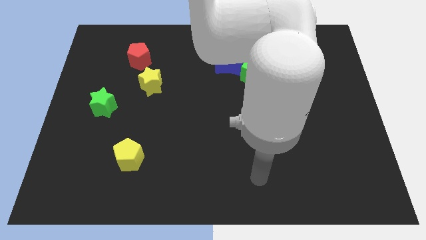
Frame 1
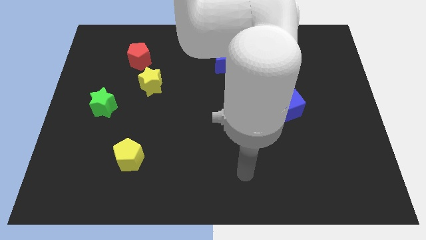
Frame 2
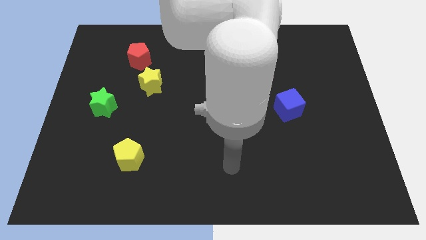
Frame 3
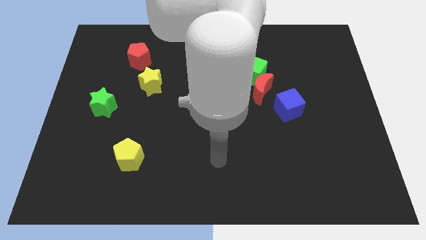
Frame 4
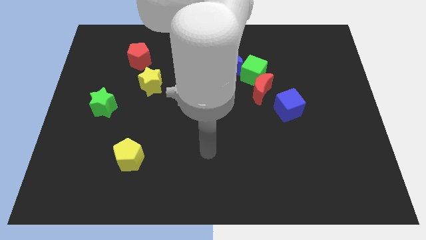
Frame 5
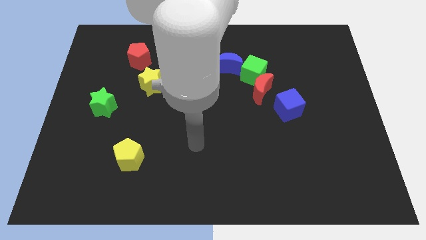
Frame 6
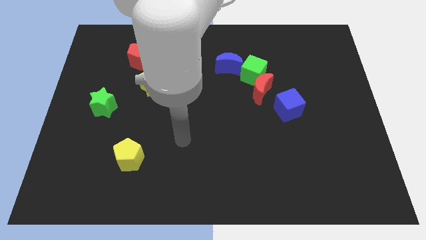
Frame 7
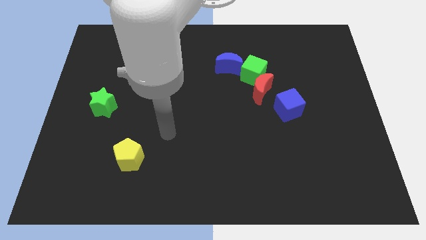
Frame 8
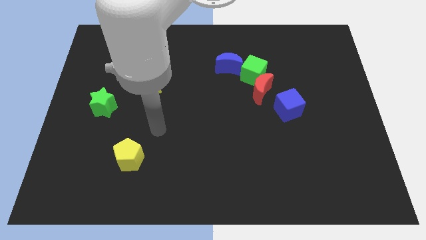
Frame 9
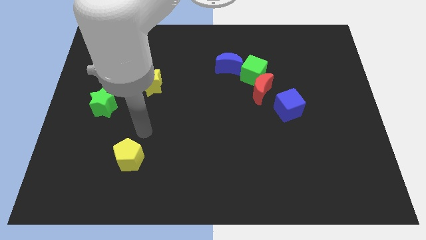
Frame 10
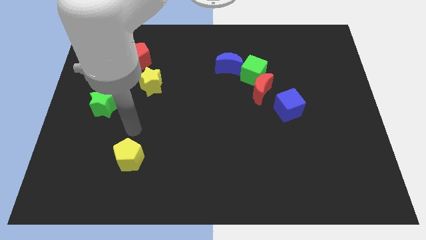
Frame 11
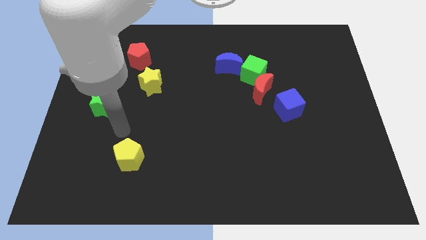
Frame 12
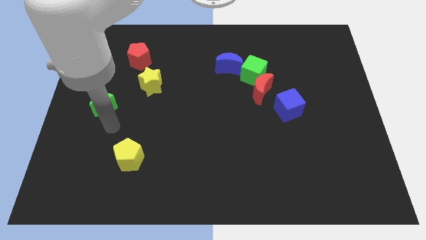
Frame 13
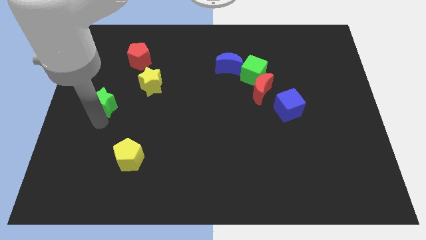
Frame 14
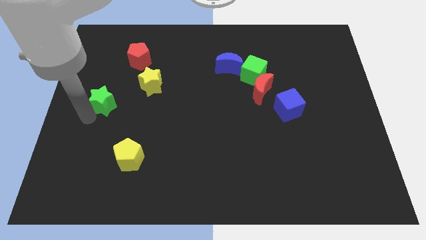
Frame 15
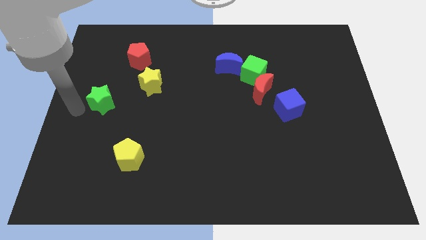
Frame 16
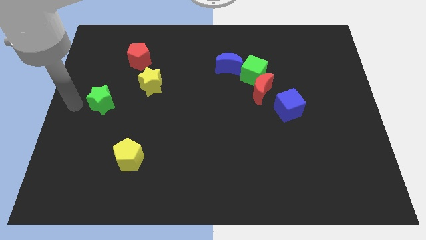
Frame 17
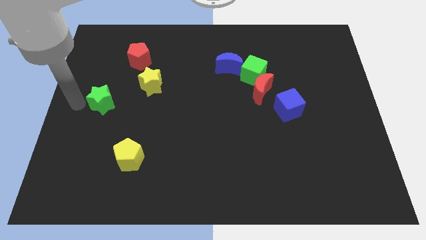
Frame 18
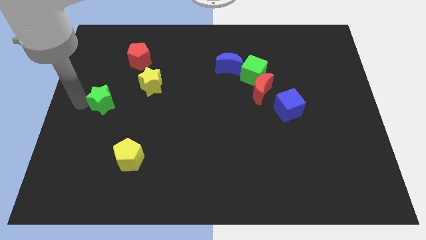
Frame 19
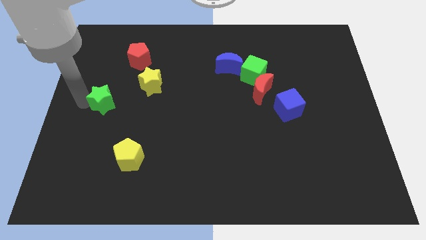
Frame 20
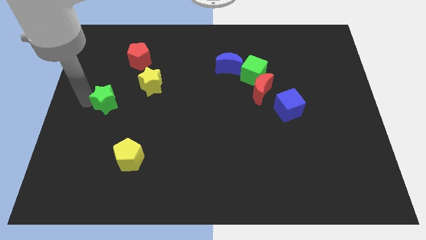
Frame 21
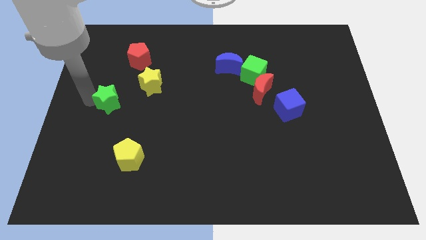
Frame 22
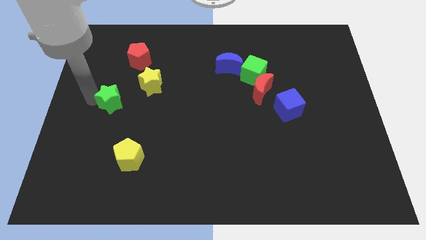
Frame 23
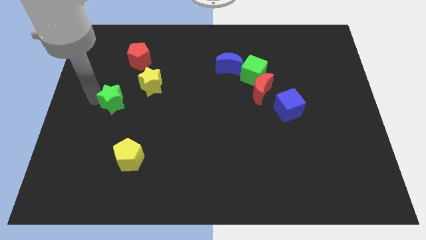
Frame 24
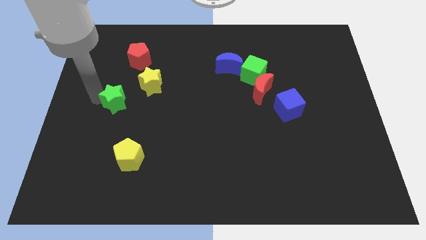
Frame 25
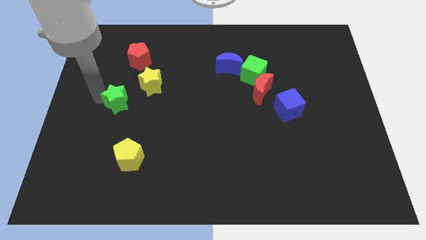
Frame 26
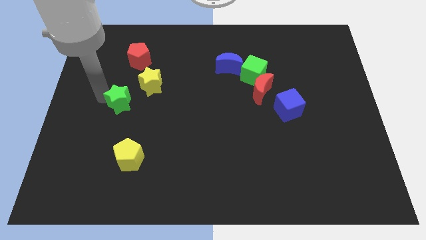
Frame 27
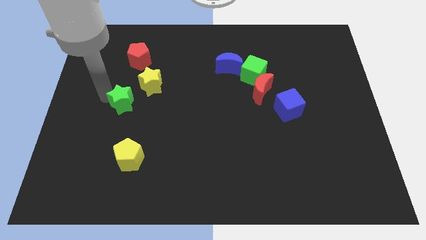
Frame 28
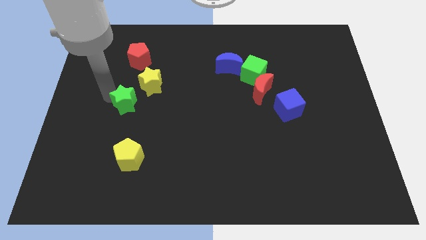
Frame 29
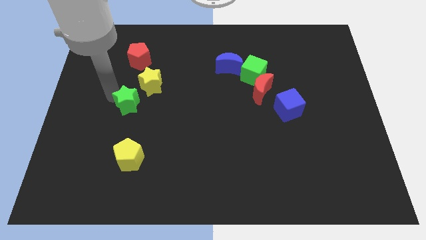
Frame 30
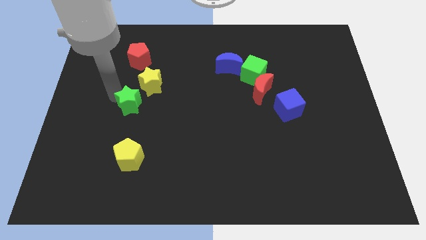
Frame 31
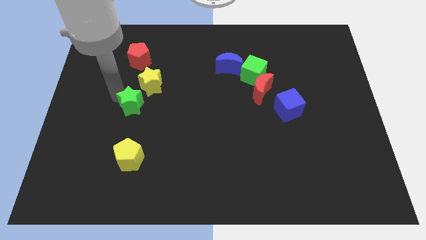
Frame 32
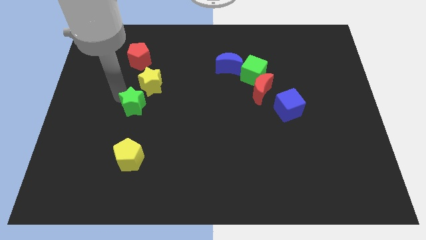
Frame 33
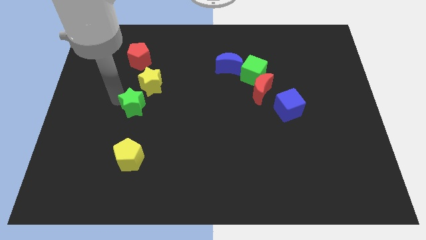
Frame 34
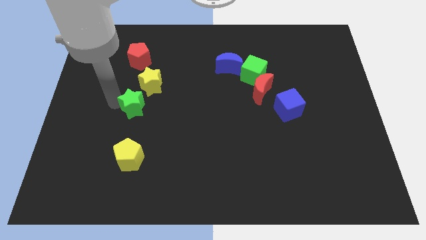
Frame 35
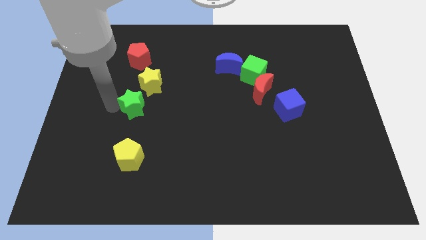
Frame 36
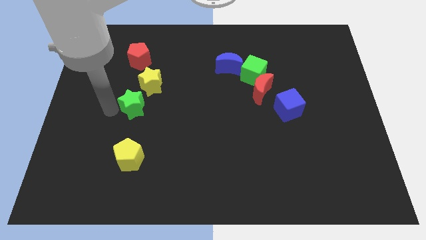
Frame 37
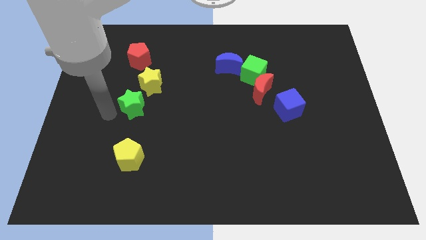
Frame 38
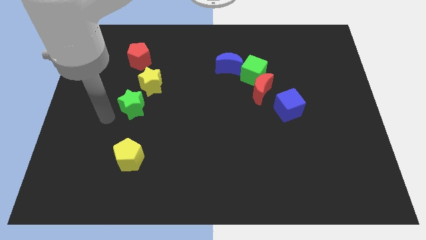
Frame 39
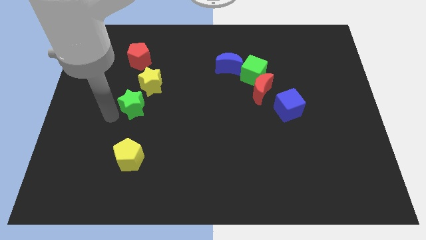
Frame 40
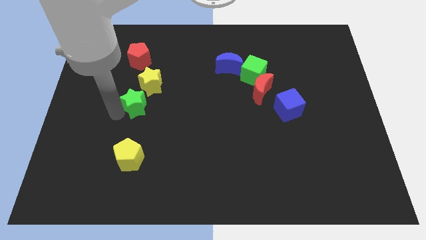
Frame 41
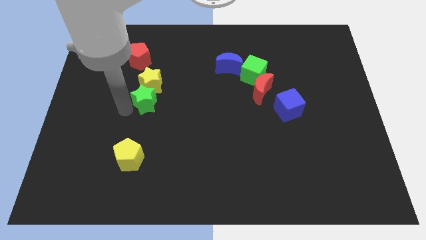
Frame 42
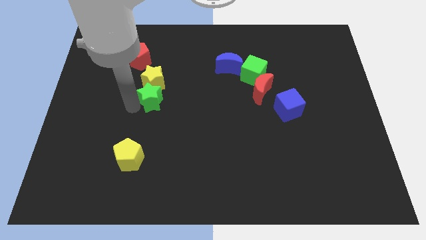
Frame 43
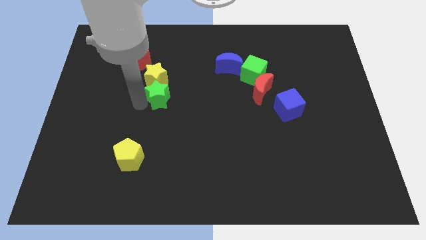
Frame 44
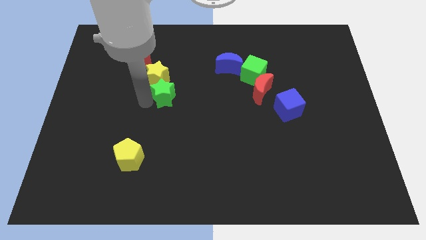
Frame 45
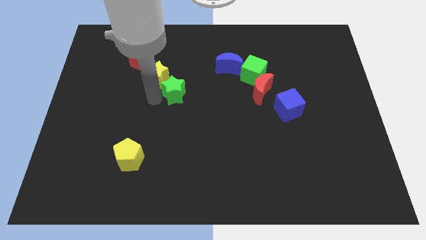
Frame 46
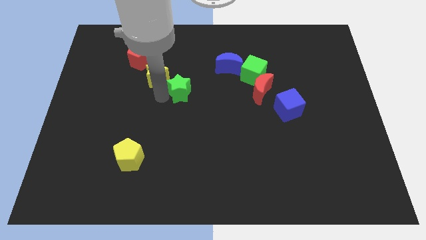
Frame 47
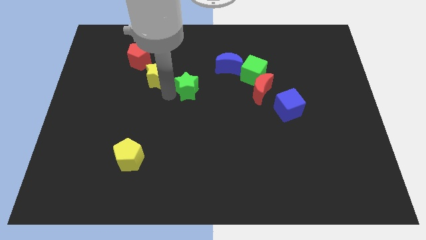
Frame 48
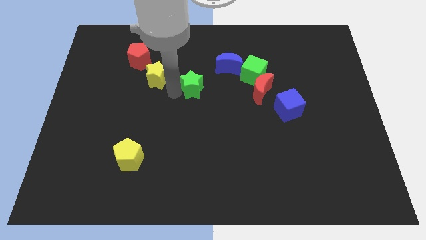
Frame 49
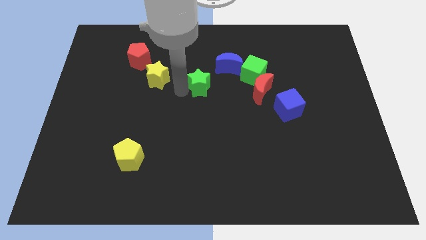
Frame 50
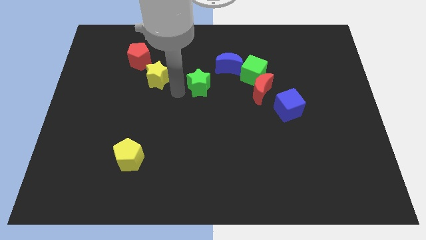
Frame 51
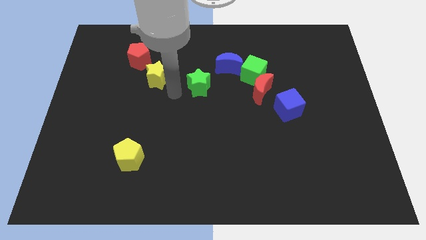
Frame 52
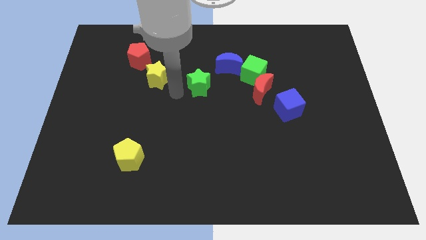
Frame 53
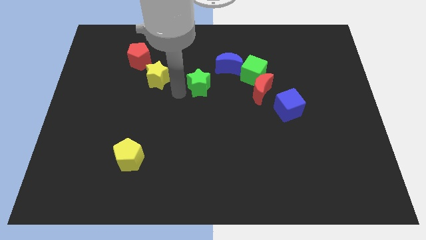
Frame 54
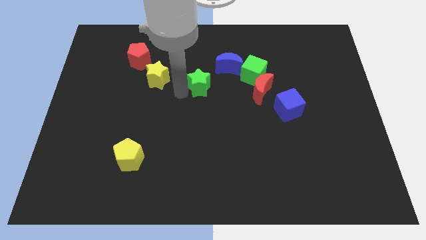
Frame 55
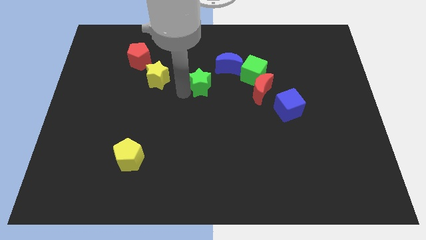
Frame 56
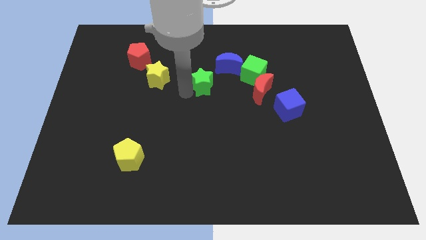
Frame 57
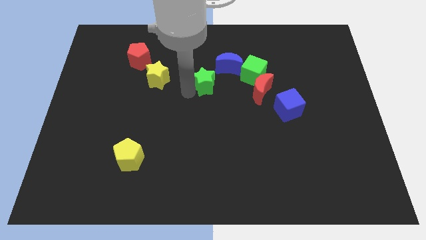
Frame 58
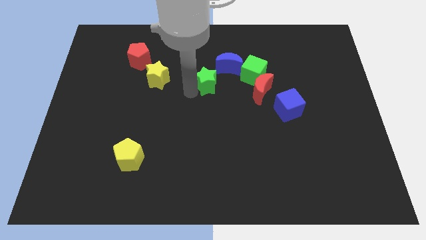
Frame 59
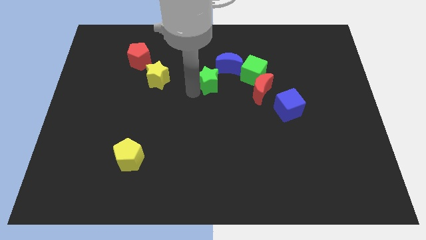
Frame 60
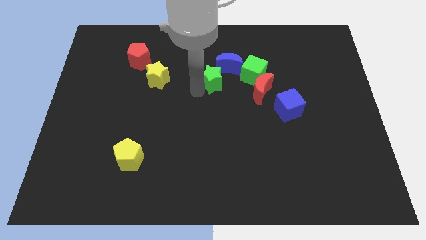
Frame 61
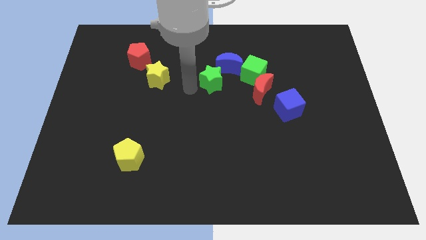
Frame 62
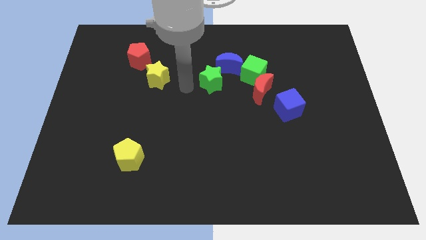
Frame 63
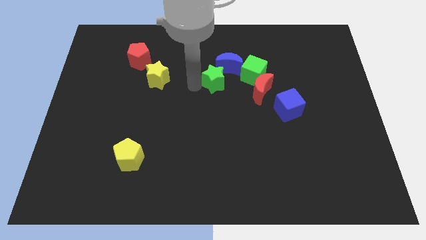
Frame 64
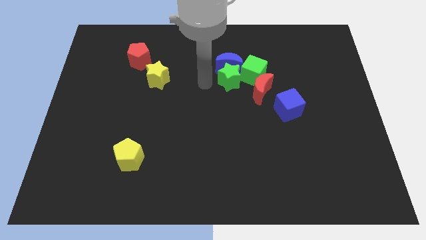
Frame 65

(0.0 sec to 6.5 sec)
push the green star close to the green cube
